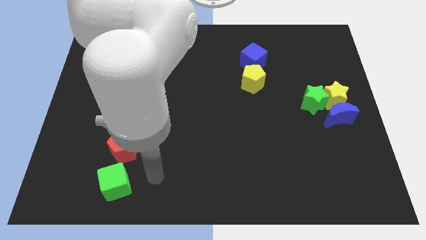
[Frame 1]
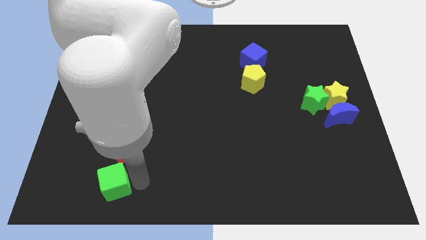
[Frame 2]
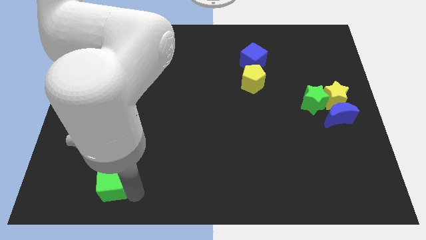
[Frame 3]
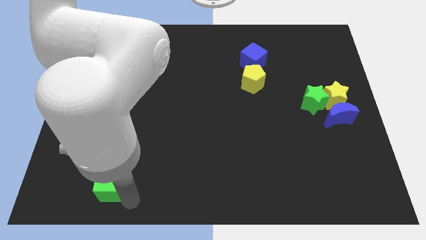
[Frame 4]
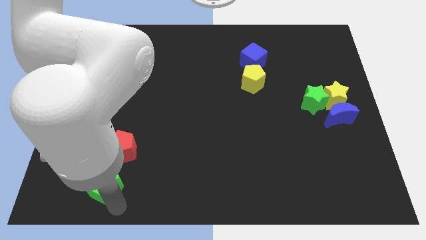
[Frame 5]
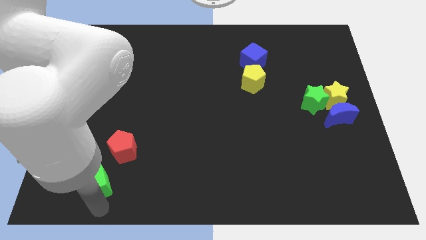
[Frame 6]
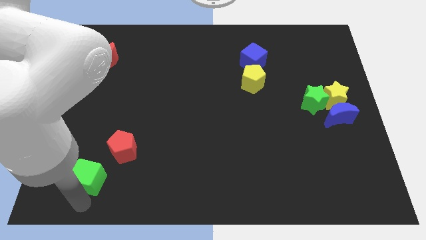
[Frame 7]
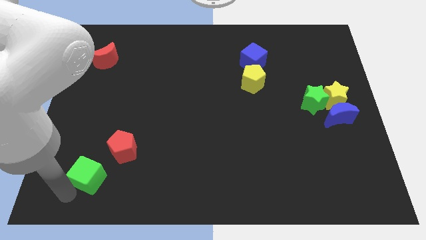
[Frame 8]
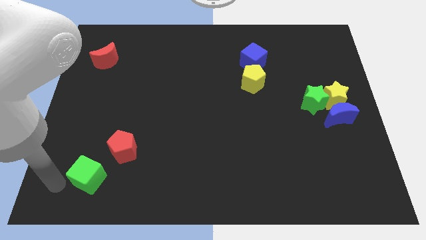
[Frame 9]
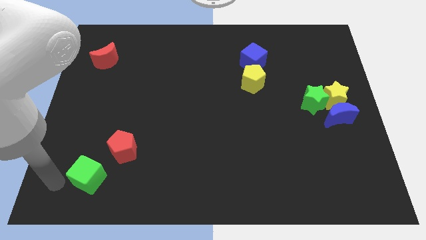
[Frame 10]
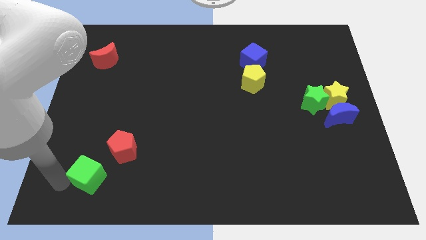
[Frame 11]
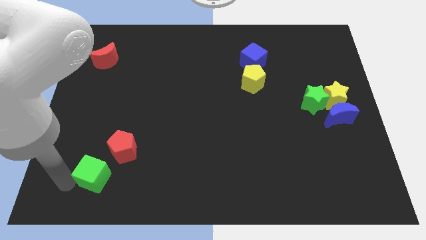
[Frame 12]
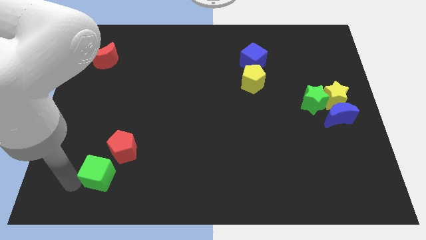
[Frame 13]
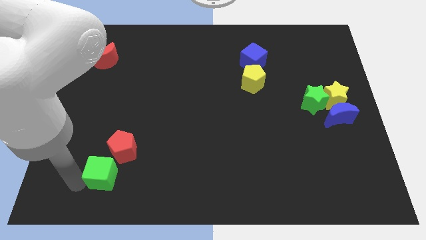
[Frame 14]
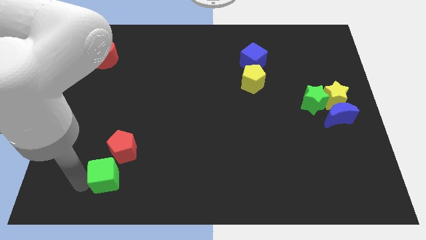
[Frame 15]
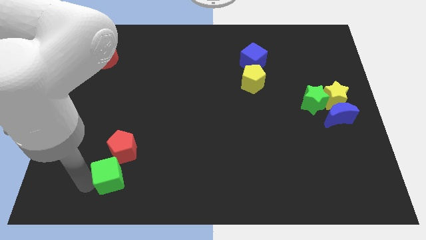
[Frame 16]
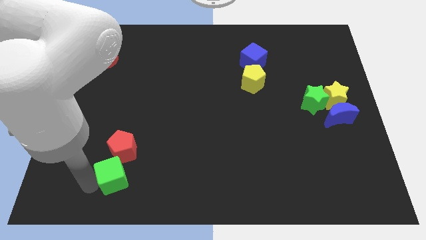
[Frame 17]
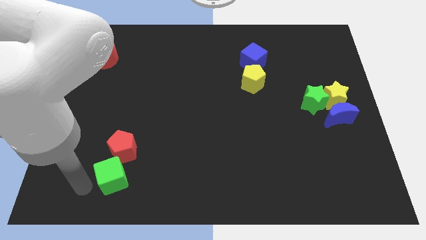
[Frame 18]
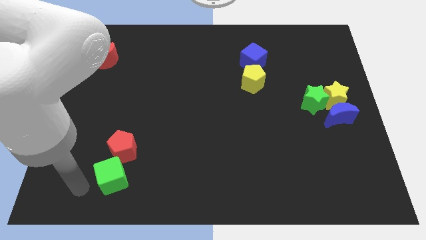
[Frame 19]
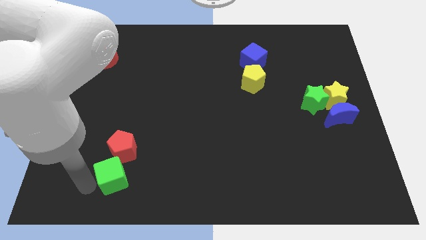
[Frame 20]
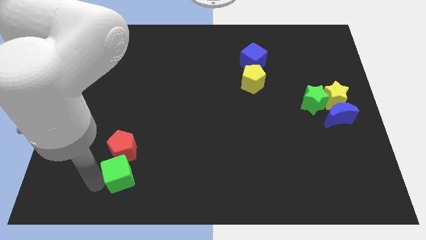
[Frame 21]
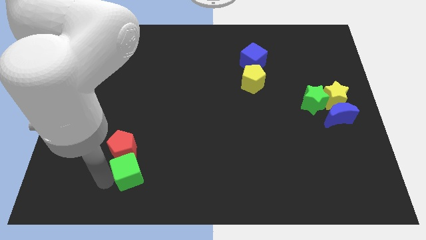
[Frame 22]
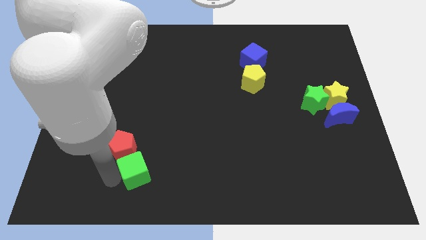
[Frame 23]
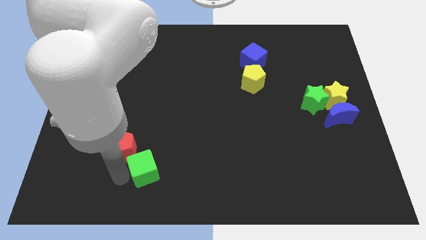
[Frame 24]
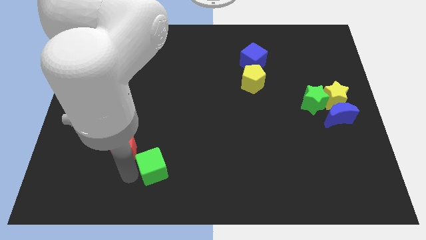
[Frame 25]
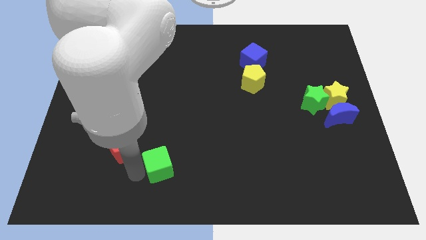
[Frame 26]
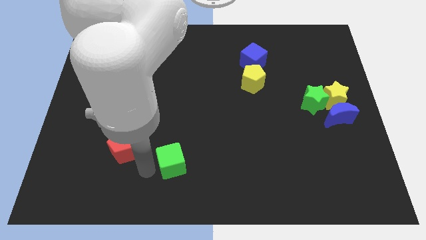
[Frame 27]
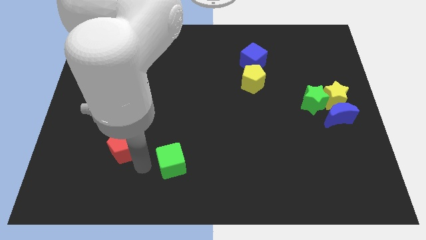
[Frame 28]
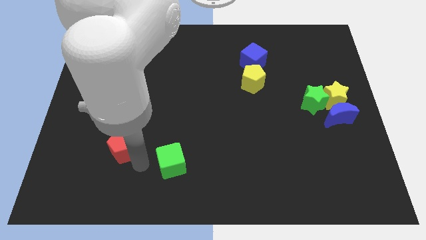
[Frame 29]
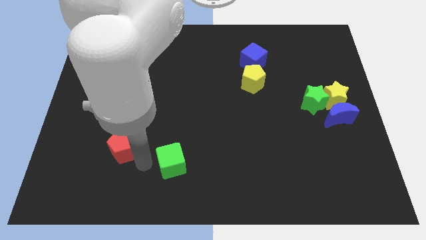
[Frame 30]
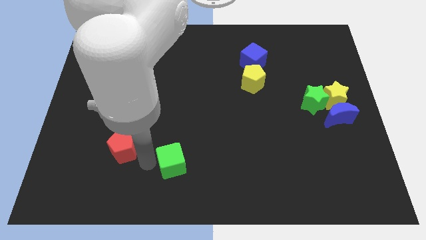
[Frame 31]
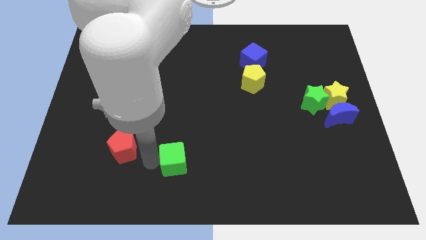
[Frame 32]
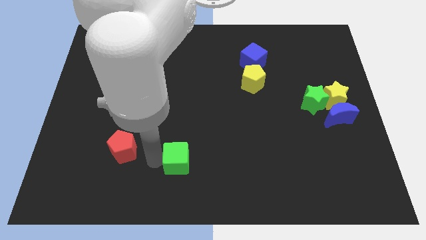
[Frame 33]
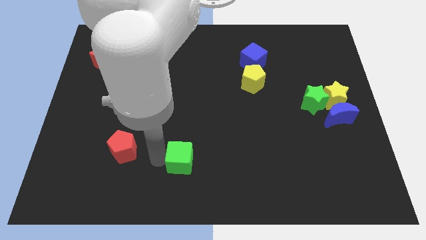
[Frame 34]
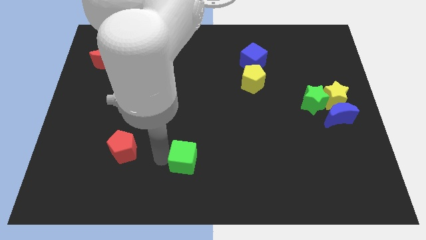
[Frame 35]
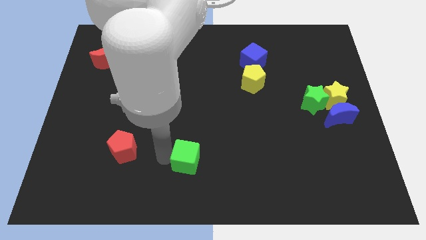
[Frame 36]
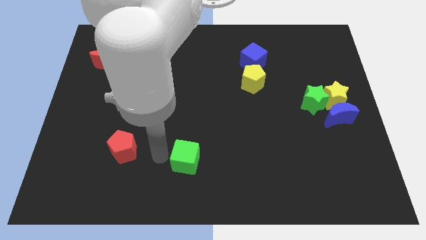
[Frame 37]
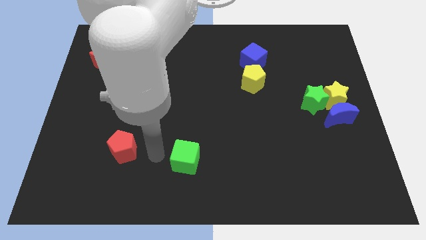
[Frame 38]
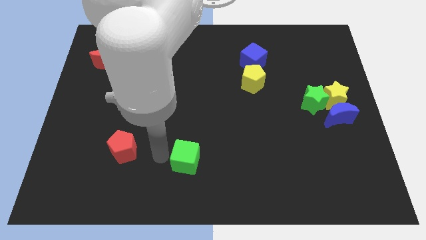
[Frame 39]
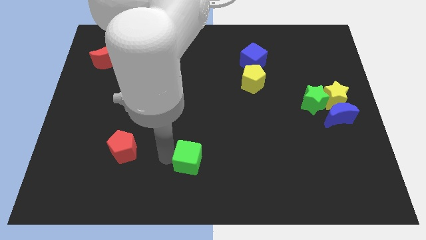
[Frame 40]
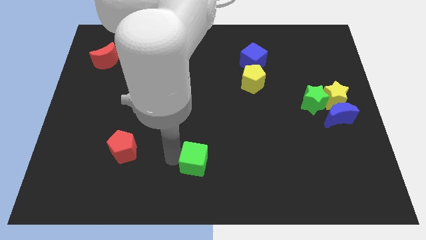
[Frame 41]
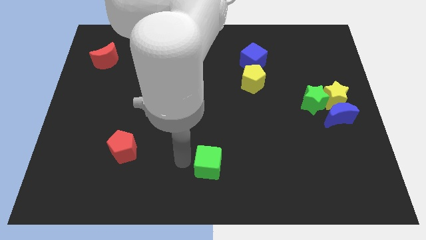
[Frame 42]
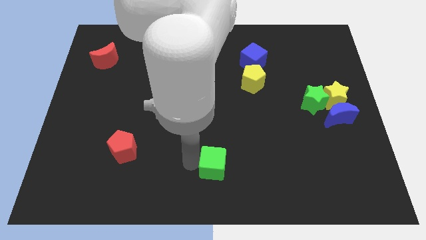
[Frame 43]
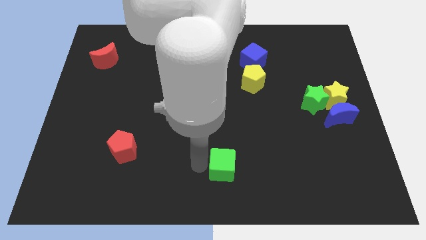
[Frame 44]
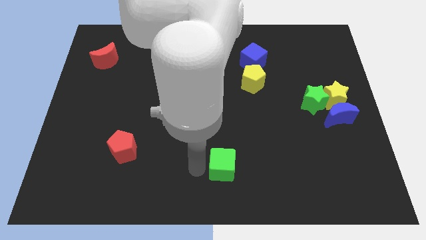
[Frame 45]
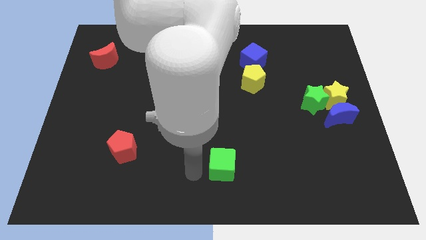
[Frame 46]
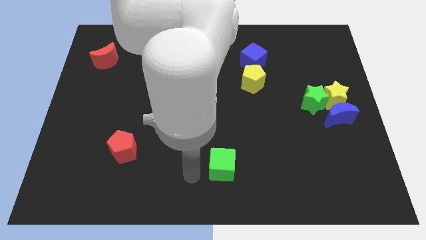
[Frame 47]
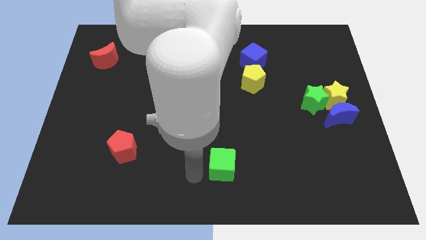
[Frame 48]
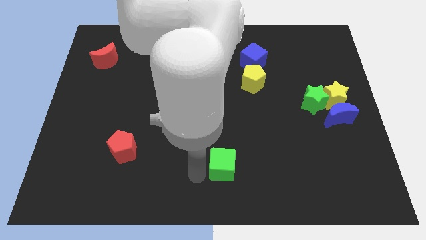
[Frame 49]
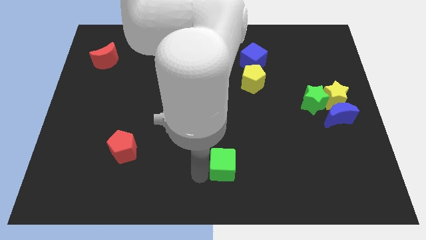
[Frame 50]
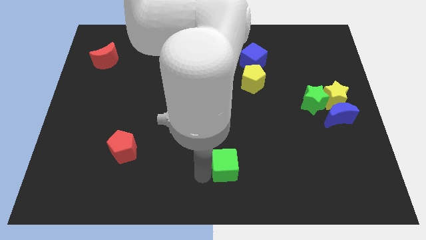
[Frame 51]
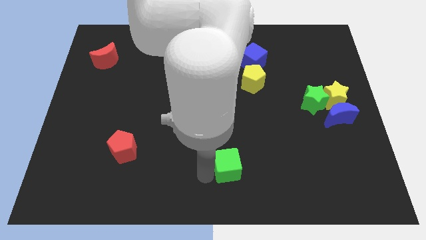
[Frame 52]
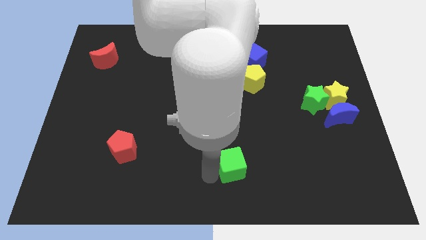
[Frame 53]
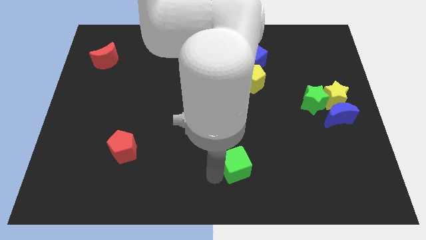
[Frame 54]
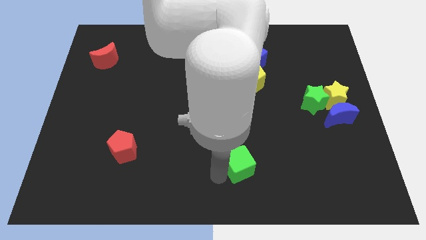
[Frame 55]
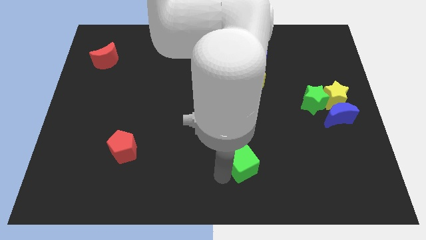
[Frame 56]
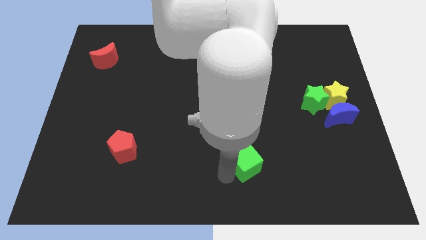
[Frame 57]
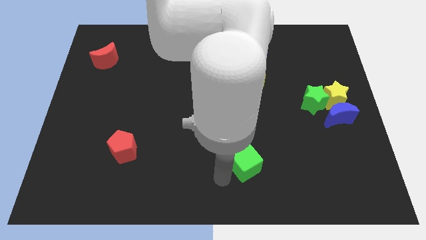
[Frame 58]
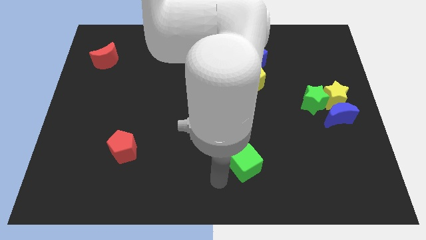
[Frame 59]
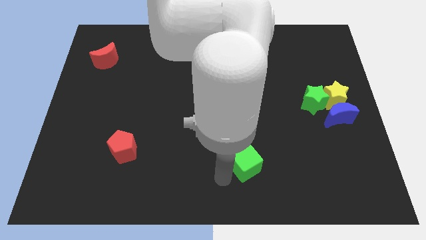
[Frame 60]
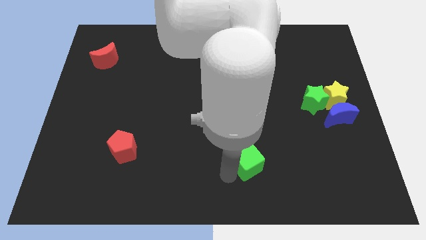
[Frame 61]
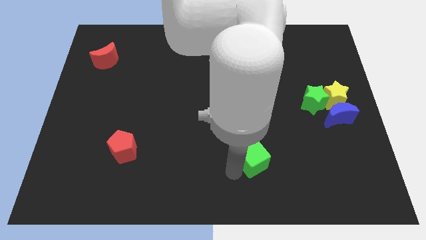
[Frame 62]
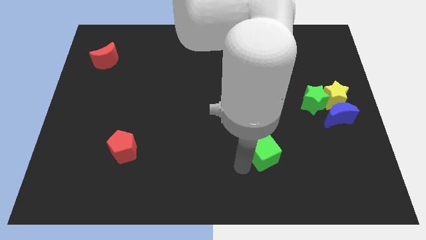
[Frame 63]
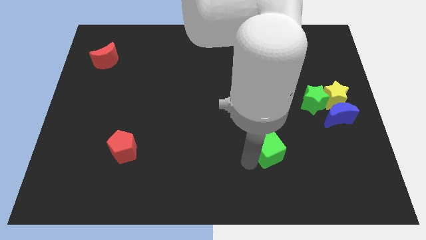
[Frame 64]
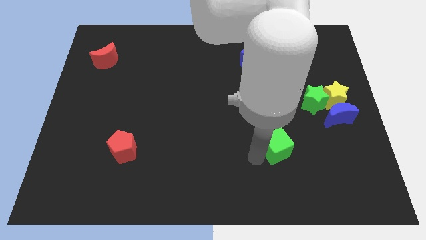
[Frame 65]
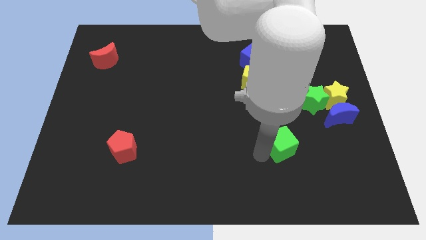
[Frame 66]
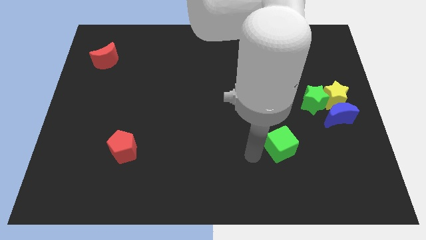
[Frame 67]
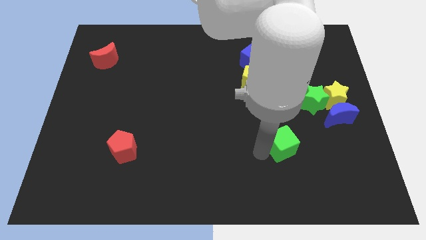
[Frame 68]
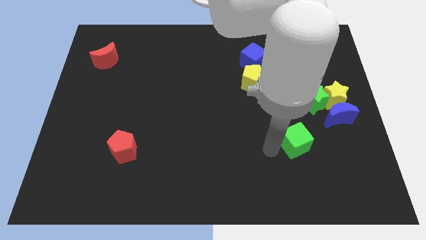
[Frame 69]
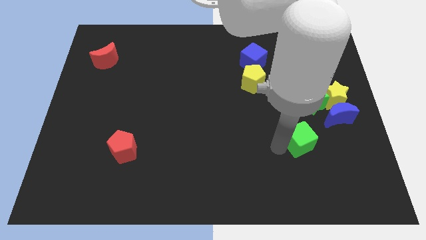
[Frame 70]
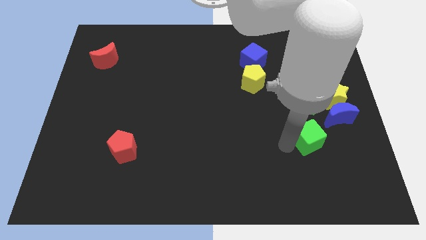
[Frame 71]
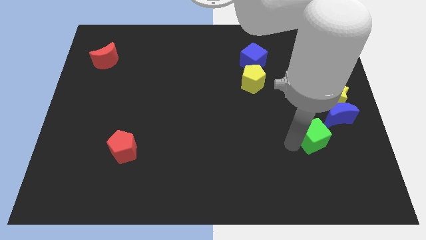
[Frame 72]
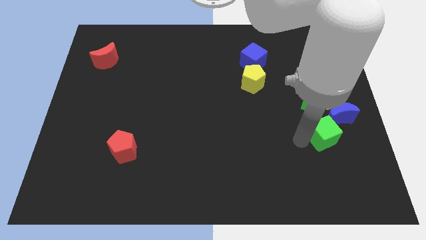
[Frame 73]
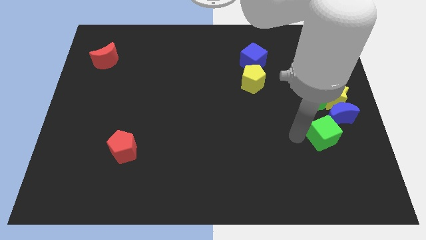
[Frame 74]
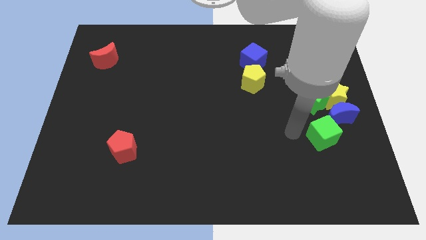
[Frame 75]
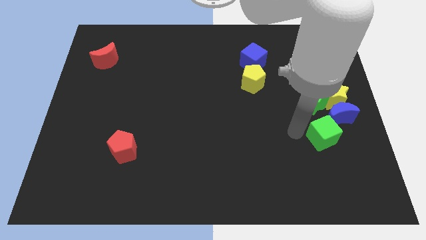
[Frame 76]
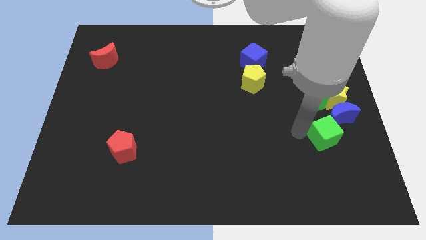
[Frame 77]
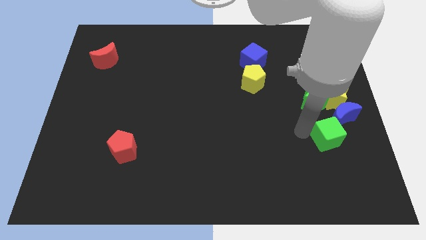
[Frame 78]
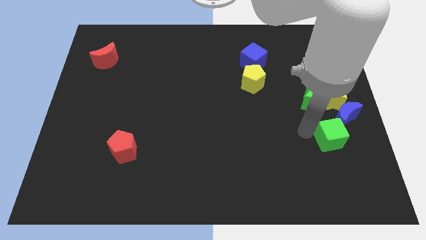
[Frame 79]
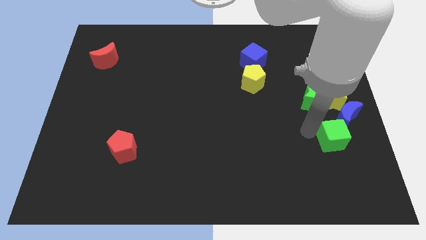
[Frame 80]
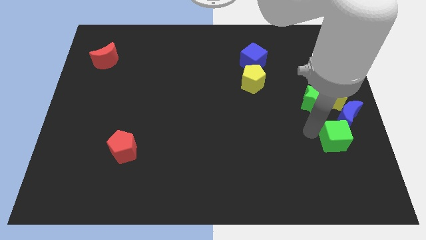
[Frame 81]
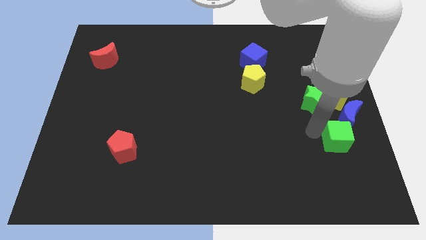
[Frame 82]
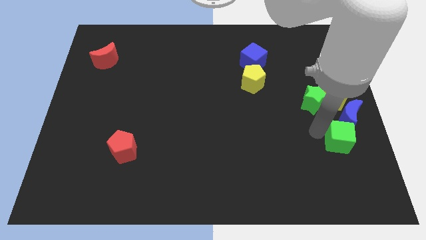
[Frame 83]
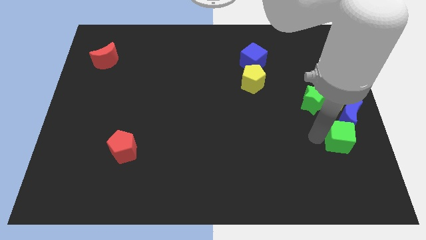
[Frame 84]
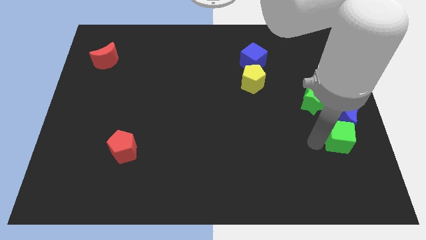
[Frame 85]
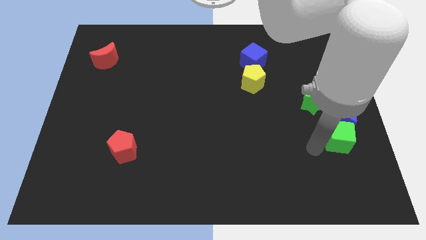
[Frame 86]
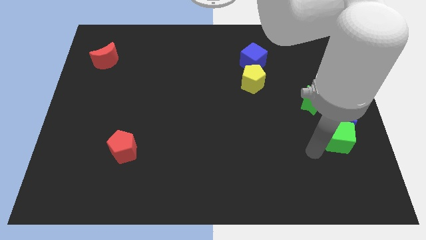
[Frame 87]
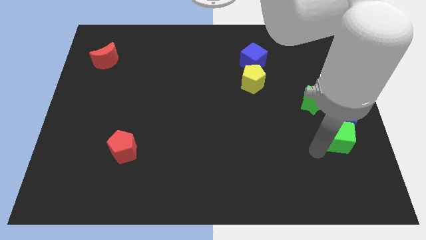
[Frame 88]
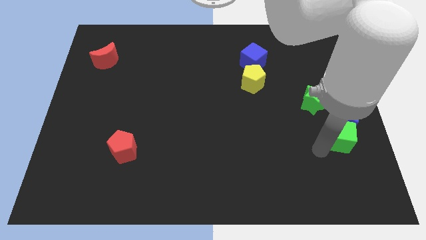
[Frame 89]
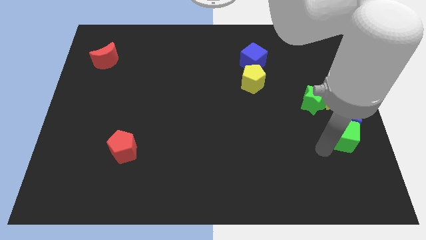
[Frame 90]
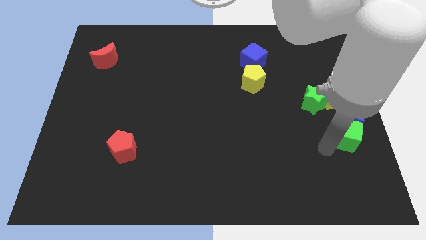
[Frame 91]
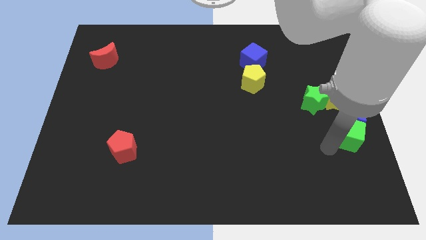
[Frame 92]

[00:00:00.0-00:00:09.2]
put the green cube to the center right
